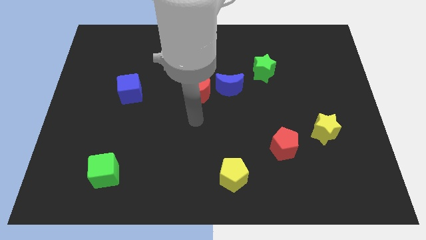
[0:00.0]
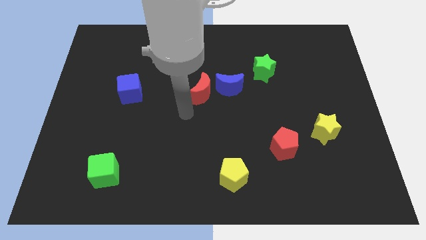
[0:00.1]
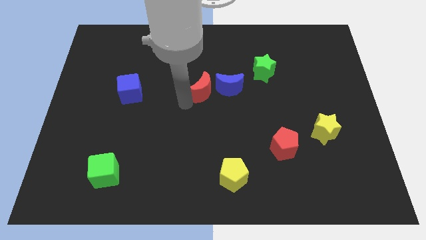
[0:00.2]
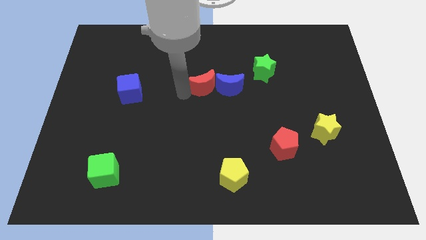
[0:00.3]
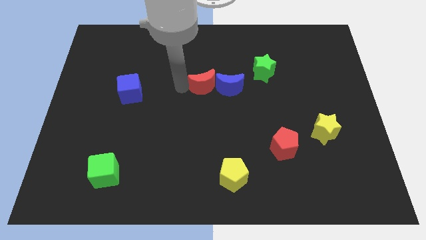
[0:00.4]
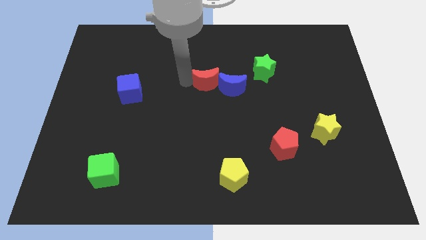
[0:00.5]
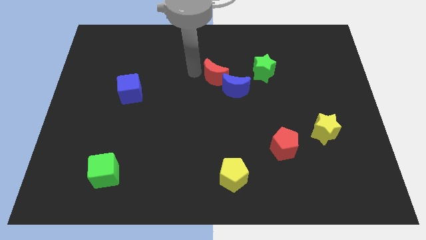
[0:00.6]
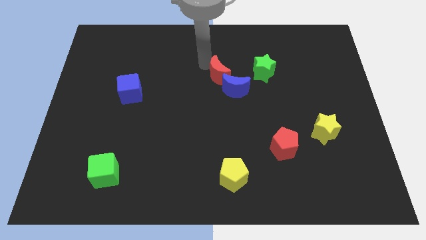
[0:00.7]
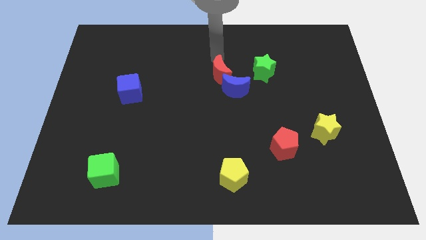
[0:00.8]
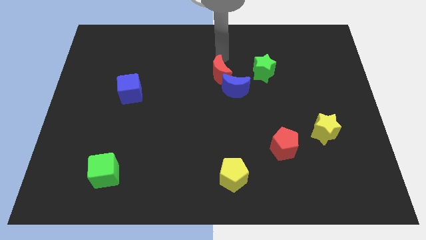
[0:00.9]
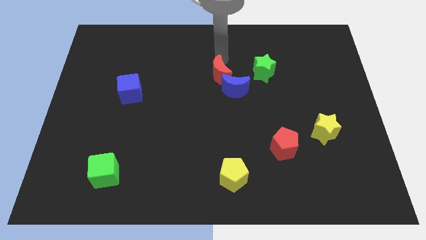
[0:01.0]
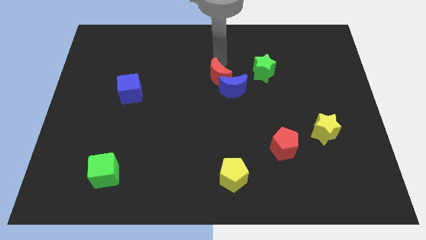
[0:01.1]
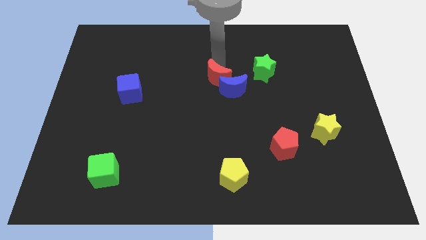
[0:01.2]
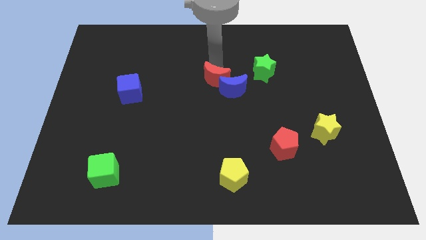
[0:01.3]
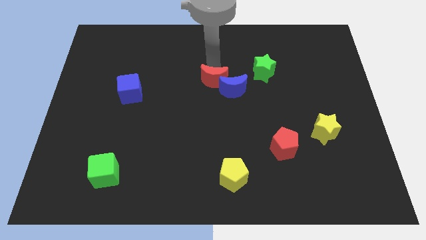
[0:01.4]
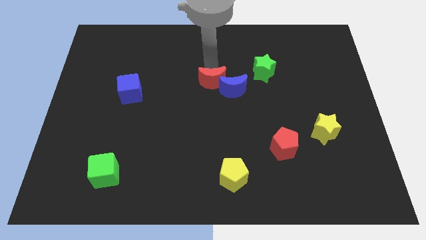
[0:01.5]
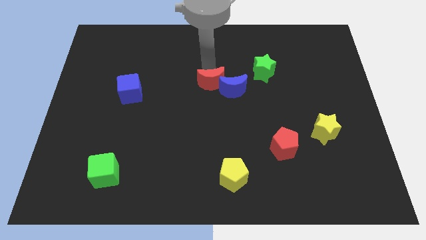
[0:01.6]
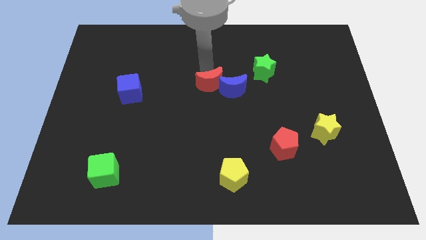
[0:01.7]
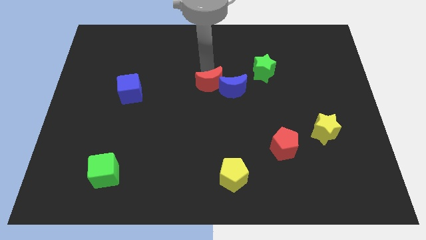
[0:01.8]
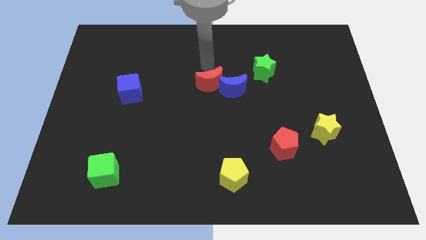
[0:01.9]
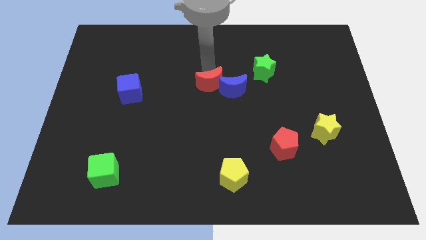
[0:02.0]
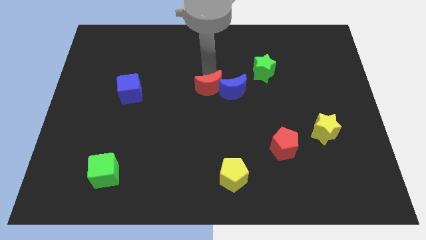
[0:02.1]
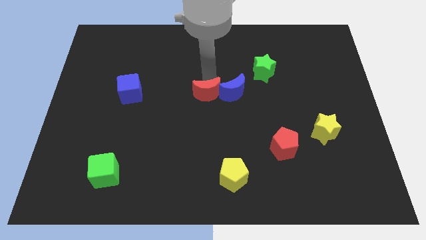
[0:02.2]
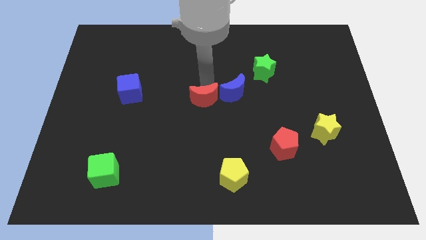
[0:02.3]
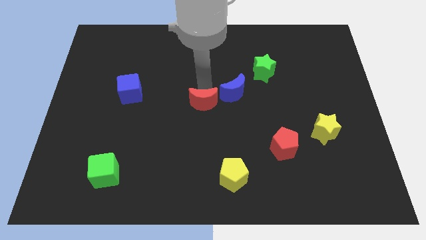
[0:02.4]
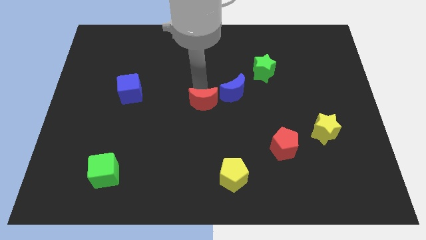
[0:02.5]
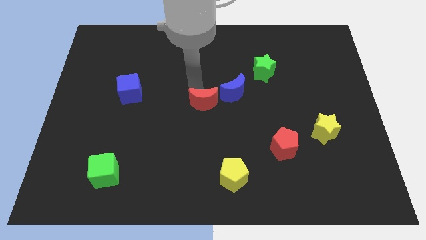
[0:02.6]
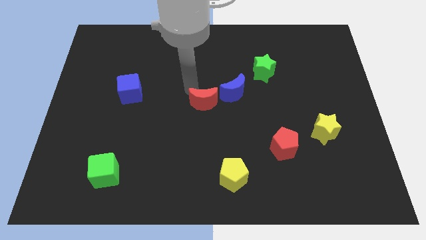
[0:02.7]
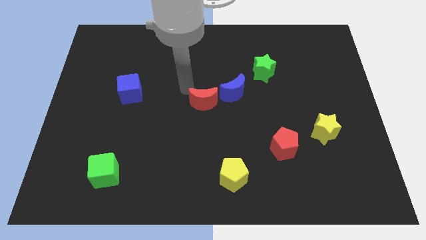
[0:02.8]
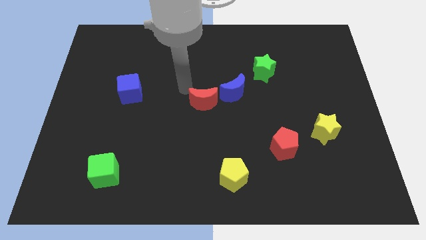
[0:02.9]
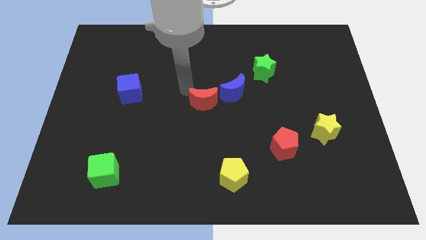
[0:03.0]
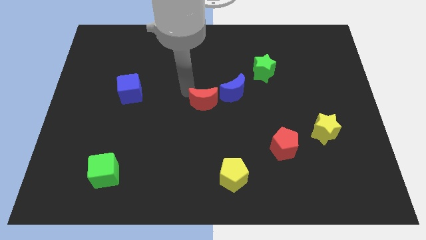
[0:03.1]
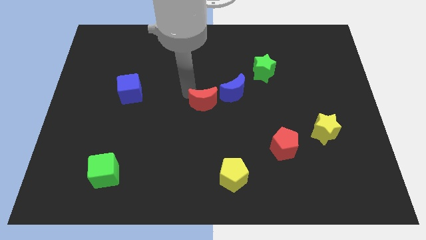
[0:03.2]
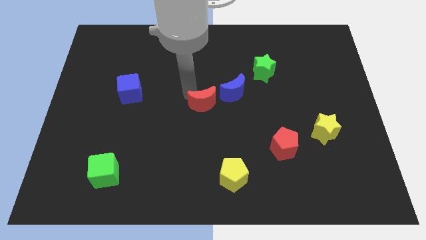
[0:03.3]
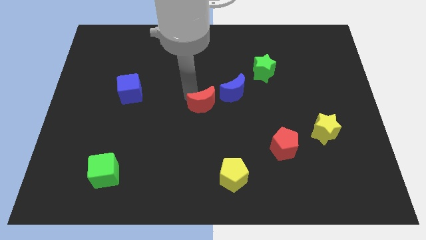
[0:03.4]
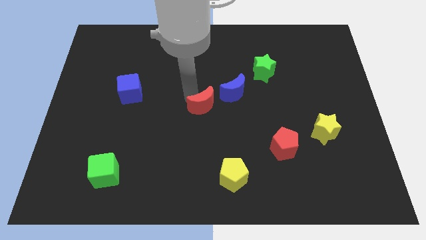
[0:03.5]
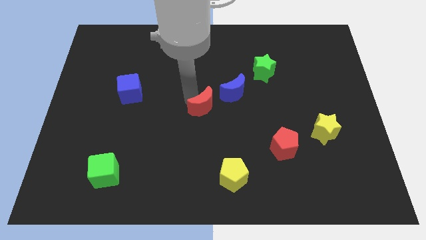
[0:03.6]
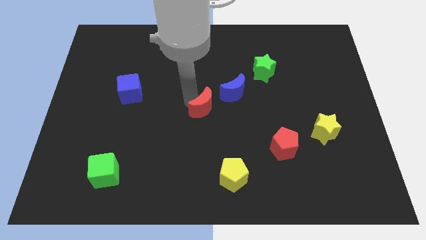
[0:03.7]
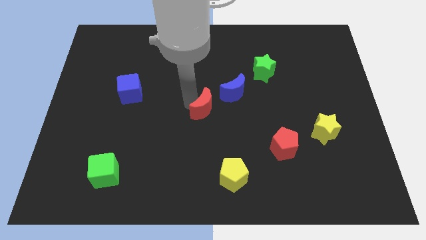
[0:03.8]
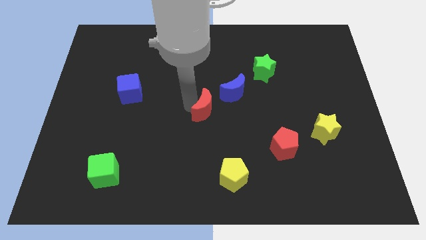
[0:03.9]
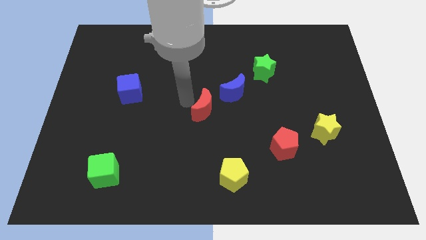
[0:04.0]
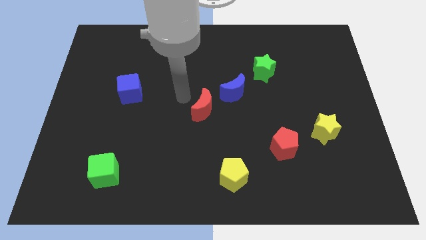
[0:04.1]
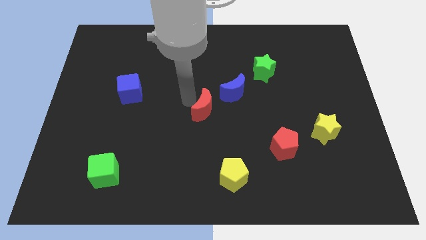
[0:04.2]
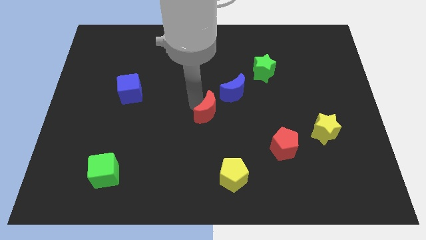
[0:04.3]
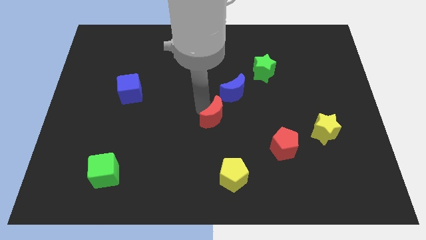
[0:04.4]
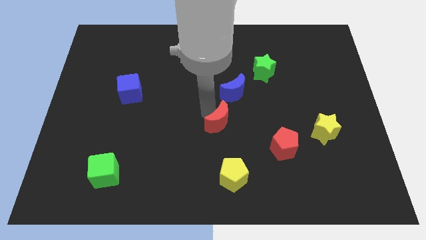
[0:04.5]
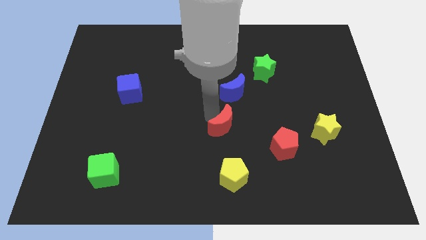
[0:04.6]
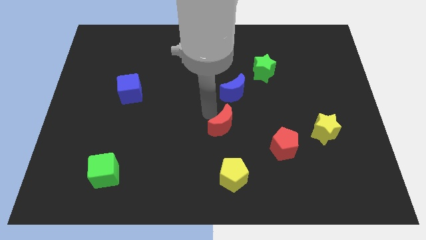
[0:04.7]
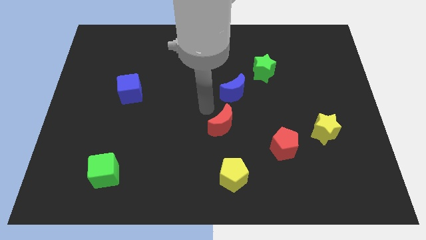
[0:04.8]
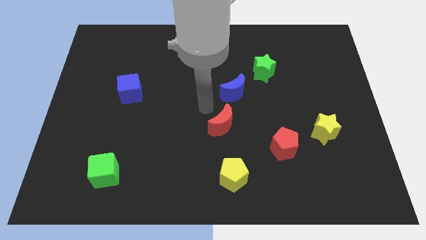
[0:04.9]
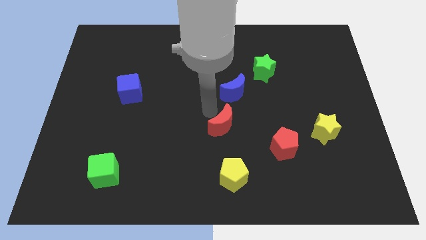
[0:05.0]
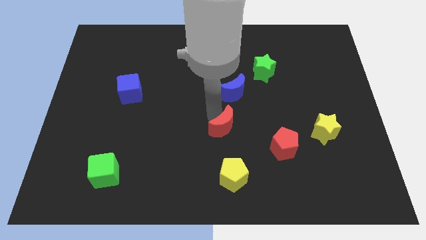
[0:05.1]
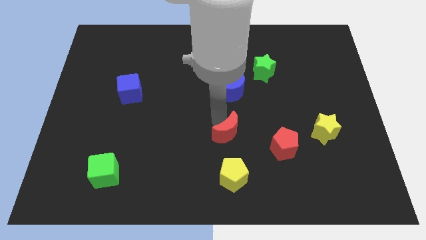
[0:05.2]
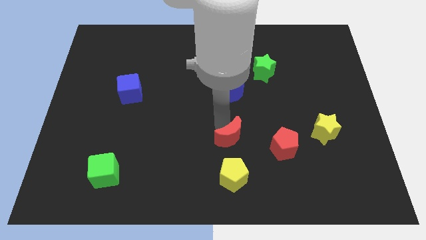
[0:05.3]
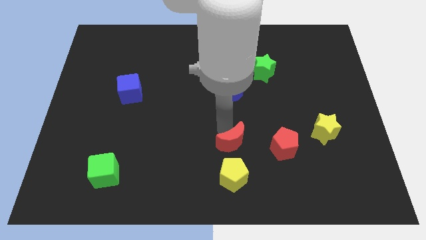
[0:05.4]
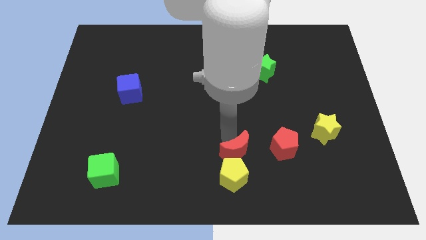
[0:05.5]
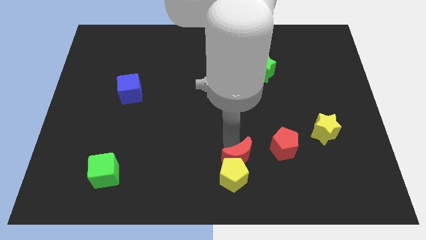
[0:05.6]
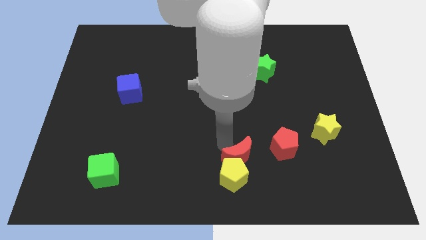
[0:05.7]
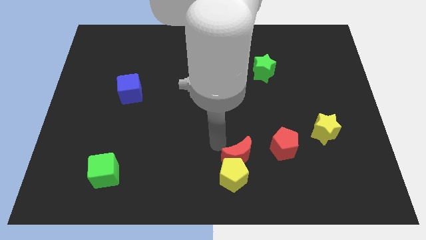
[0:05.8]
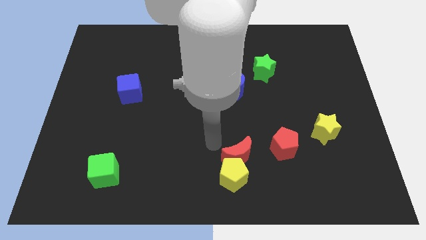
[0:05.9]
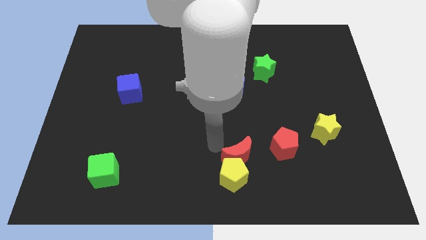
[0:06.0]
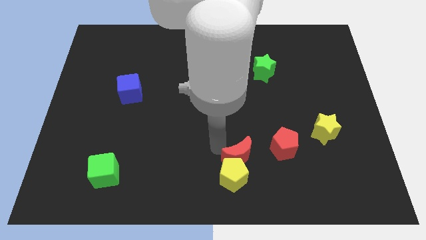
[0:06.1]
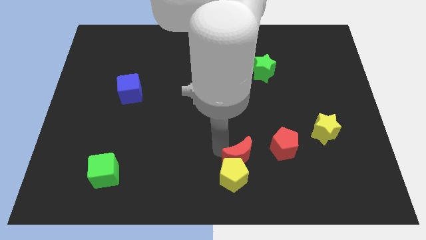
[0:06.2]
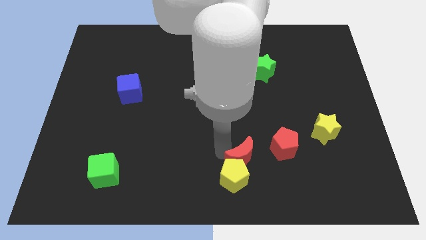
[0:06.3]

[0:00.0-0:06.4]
move the red moon to the bottom left side of the red pentagon

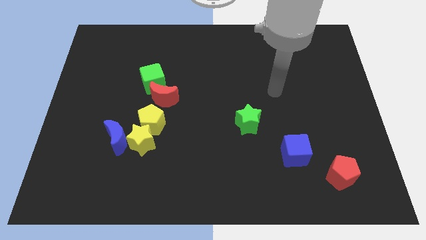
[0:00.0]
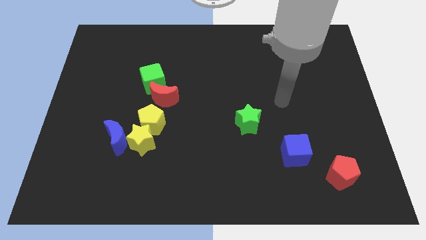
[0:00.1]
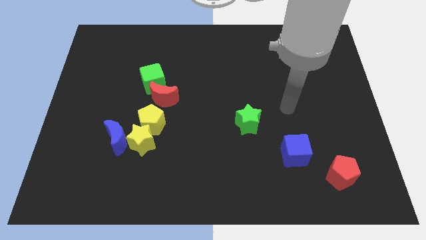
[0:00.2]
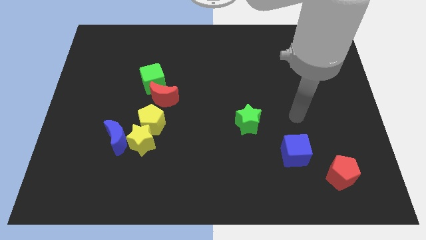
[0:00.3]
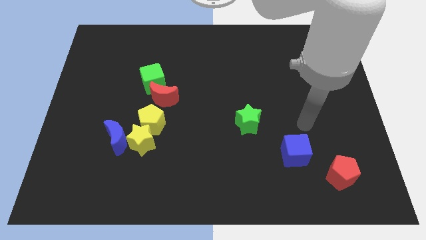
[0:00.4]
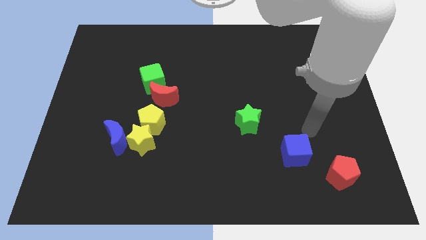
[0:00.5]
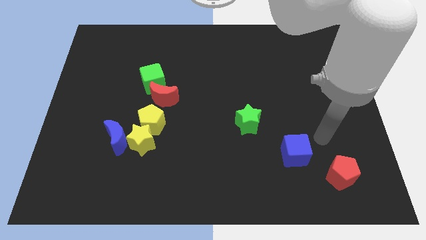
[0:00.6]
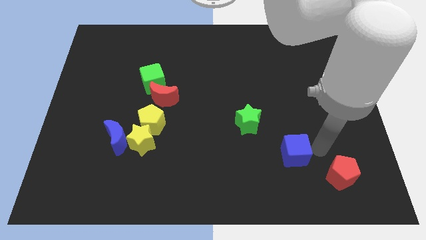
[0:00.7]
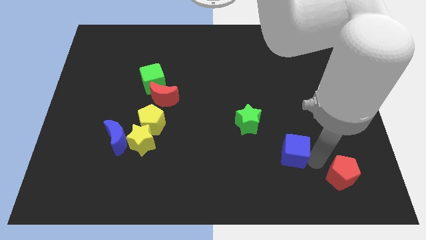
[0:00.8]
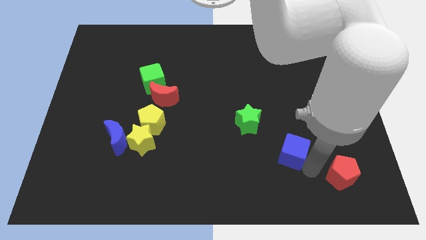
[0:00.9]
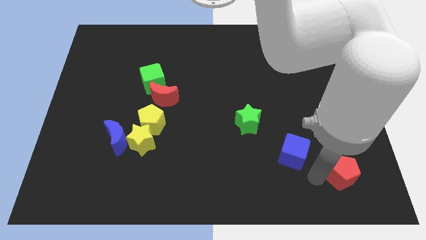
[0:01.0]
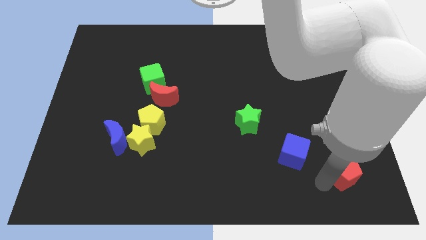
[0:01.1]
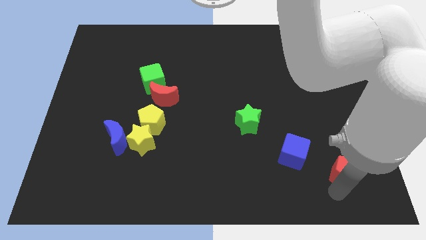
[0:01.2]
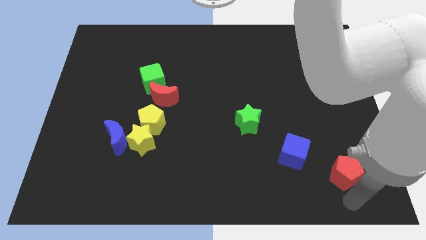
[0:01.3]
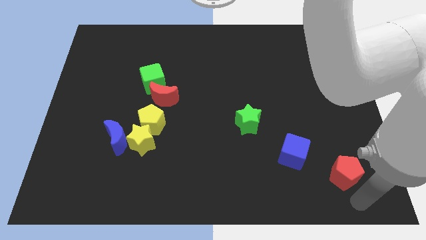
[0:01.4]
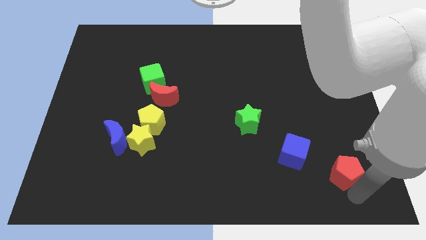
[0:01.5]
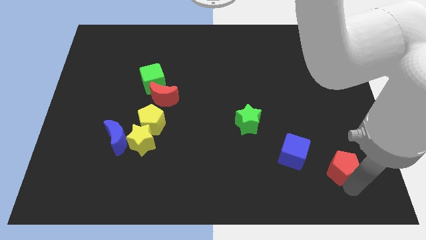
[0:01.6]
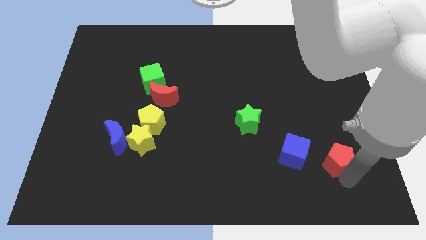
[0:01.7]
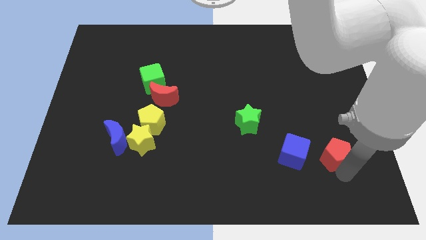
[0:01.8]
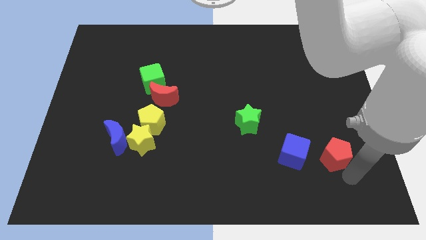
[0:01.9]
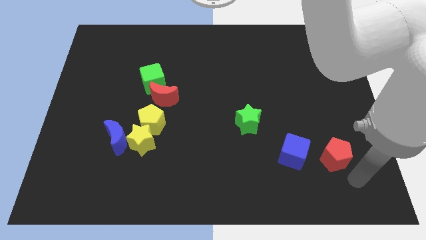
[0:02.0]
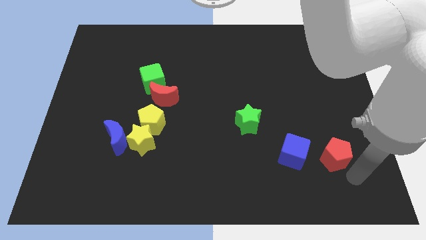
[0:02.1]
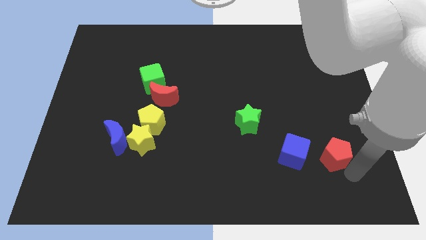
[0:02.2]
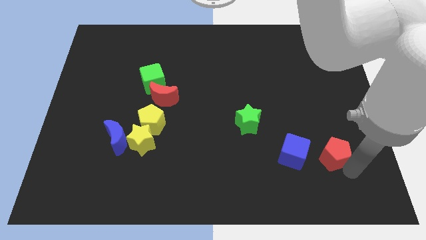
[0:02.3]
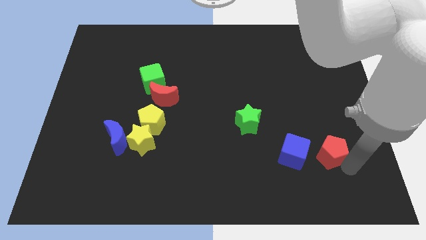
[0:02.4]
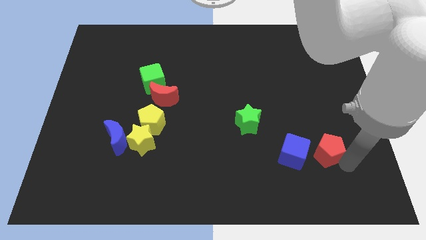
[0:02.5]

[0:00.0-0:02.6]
slide the red pentagon to the top right of the blue cube
